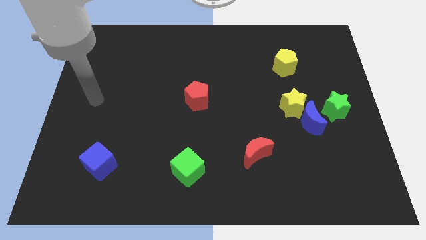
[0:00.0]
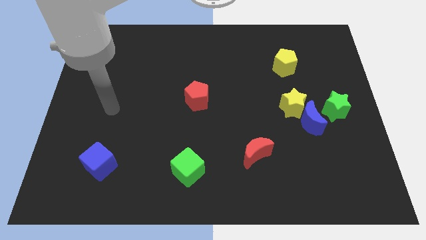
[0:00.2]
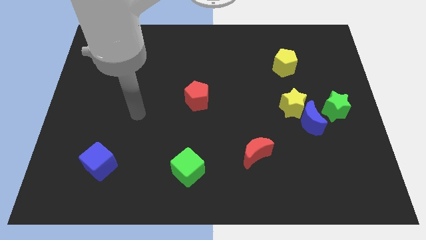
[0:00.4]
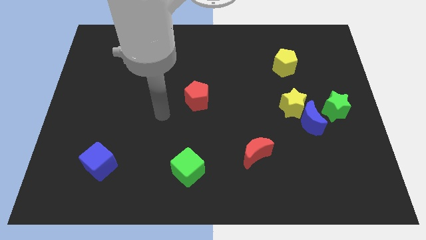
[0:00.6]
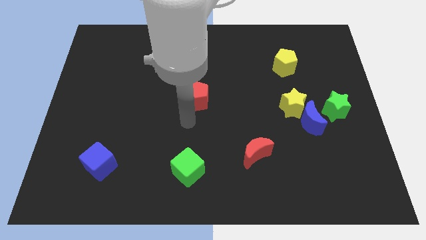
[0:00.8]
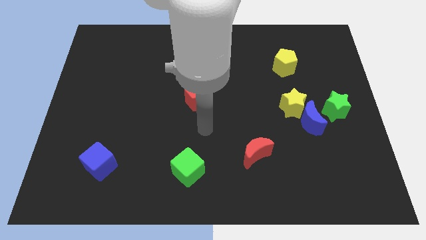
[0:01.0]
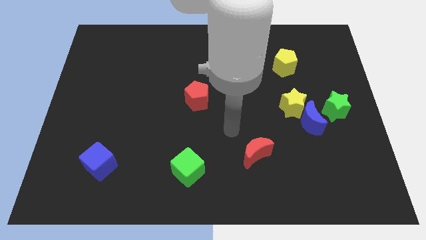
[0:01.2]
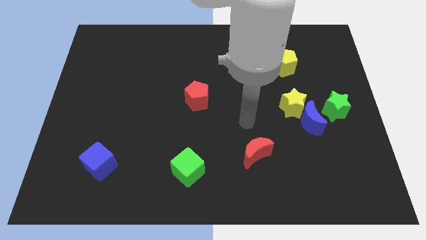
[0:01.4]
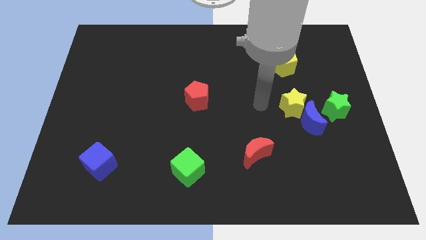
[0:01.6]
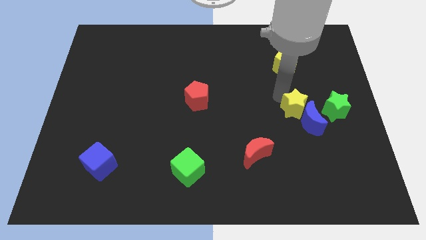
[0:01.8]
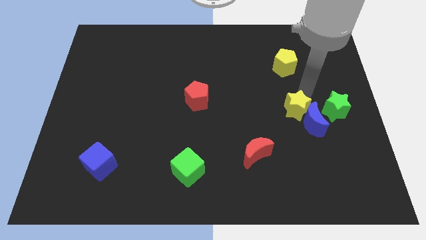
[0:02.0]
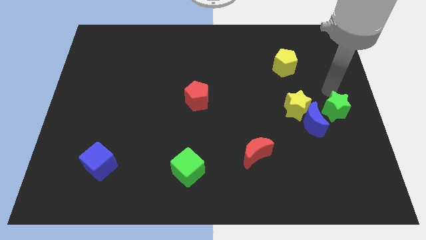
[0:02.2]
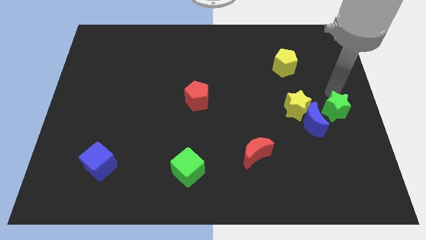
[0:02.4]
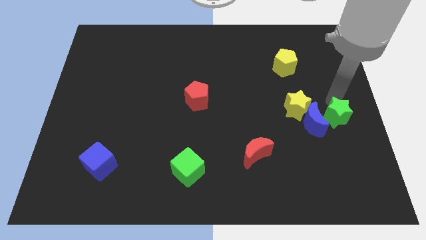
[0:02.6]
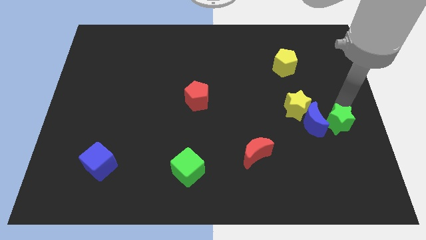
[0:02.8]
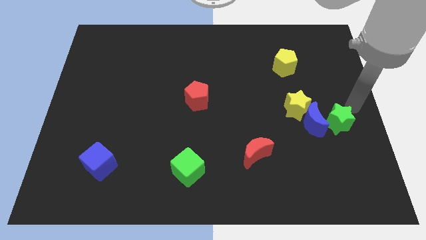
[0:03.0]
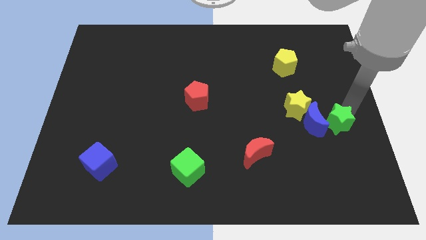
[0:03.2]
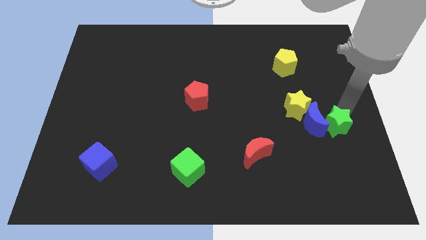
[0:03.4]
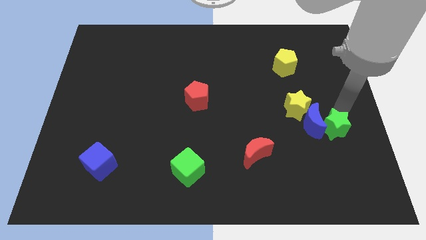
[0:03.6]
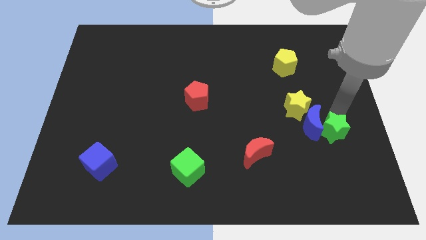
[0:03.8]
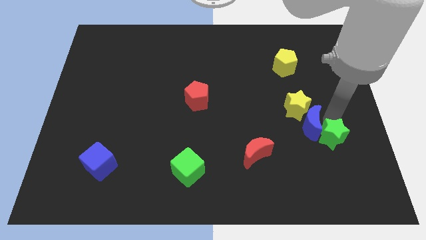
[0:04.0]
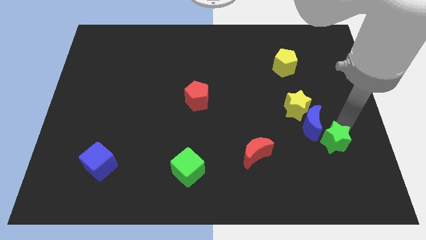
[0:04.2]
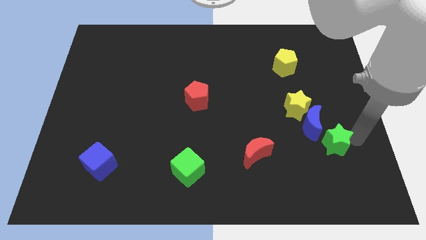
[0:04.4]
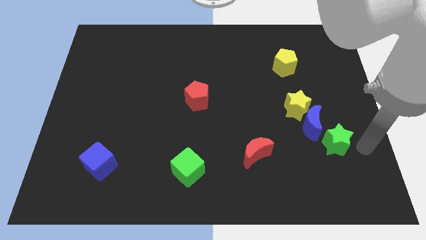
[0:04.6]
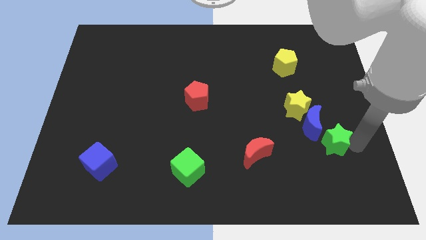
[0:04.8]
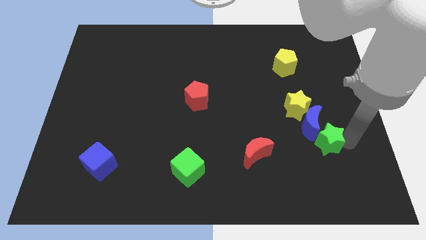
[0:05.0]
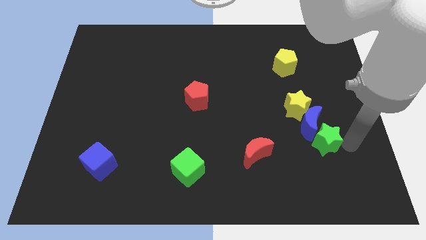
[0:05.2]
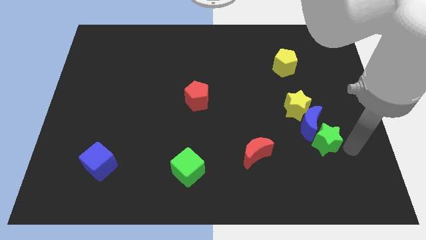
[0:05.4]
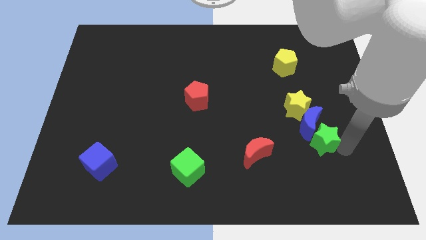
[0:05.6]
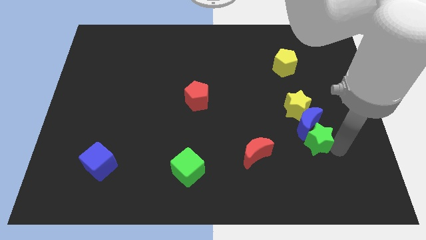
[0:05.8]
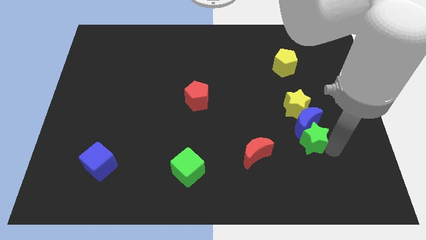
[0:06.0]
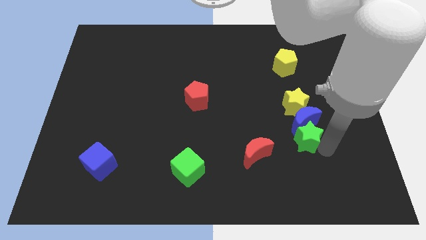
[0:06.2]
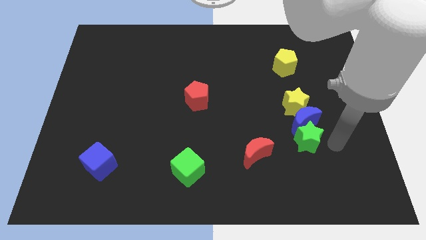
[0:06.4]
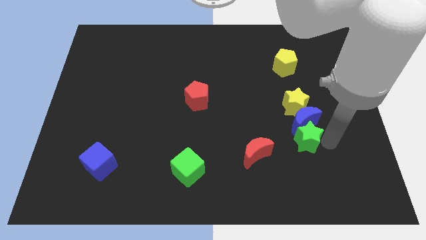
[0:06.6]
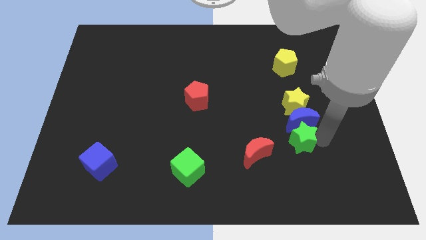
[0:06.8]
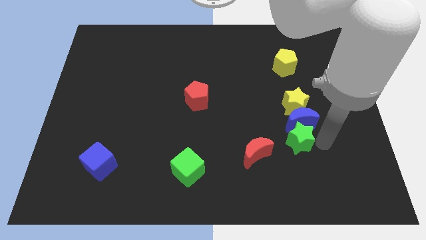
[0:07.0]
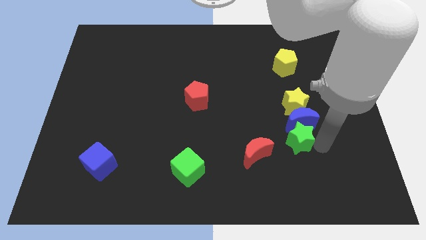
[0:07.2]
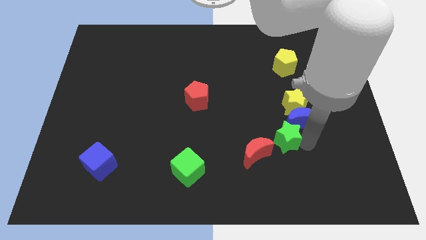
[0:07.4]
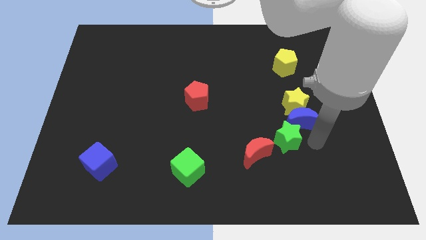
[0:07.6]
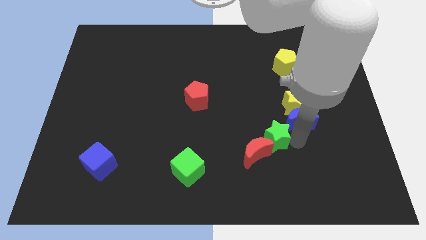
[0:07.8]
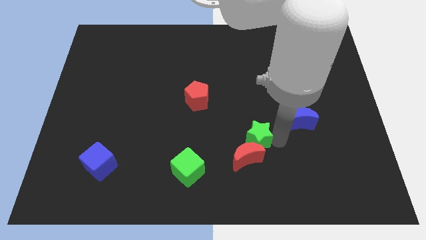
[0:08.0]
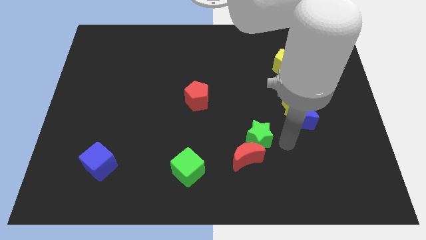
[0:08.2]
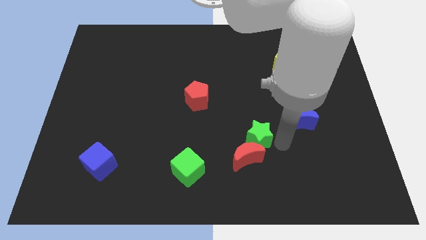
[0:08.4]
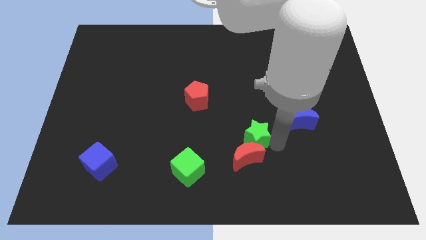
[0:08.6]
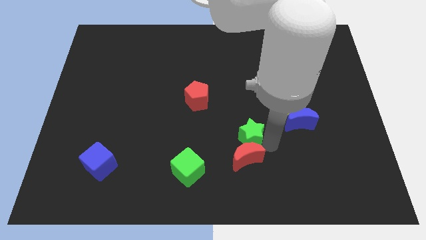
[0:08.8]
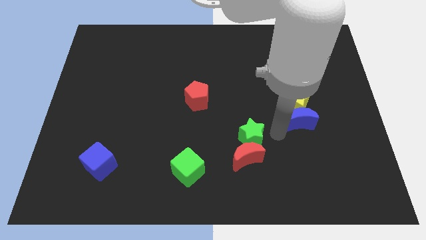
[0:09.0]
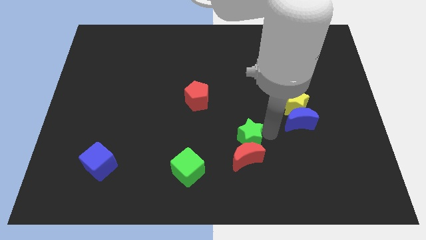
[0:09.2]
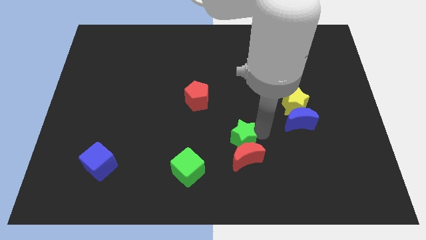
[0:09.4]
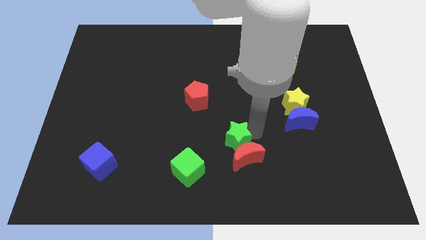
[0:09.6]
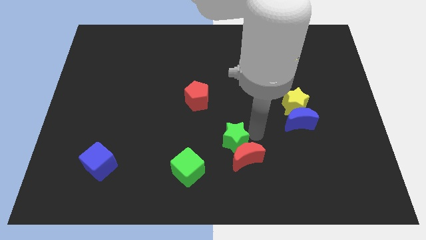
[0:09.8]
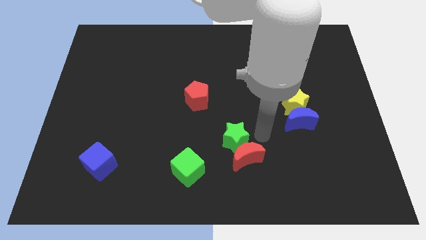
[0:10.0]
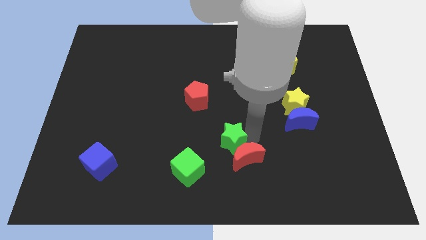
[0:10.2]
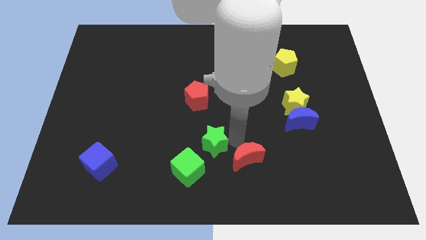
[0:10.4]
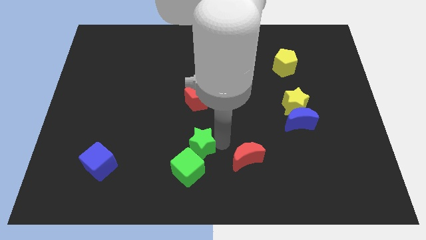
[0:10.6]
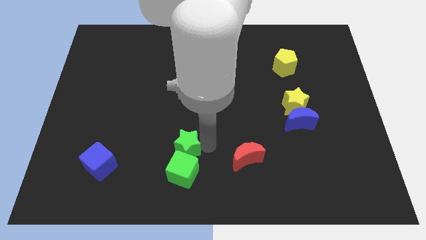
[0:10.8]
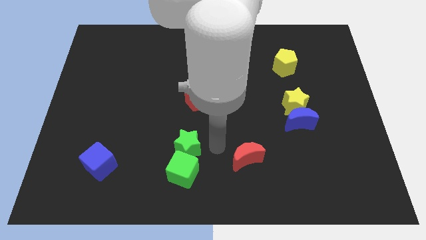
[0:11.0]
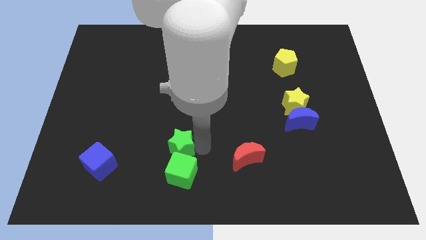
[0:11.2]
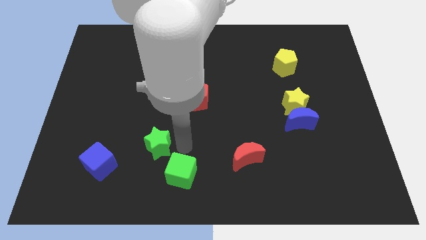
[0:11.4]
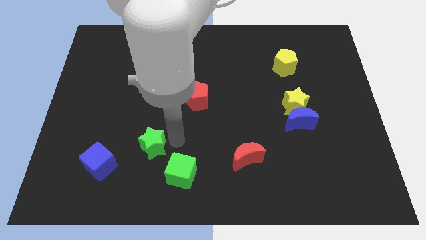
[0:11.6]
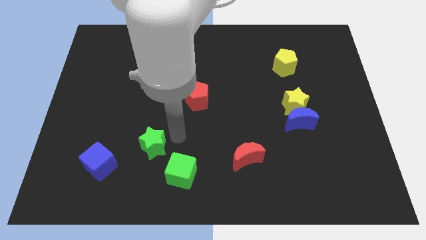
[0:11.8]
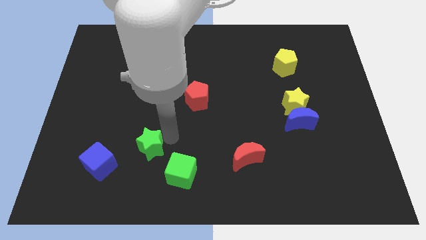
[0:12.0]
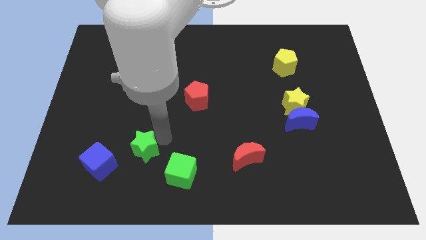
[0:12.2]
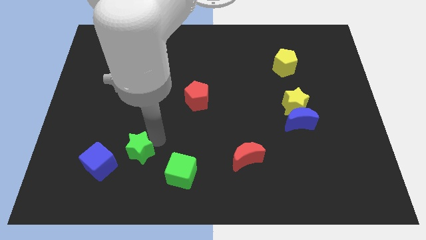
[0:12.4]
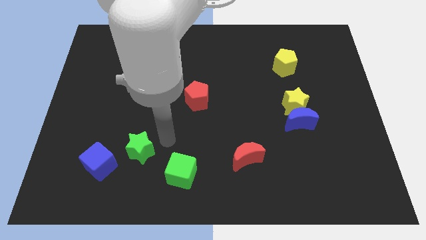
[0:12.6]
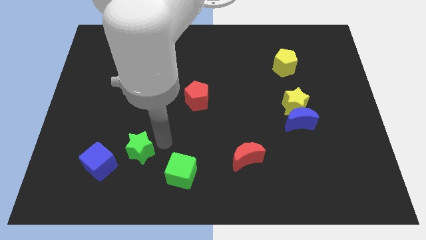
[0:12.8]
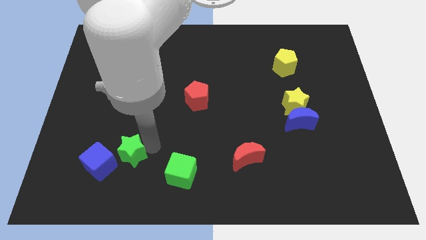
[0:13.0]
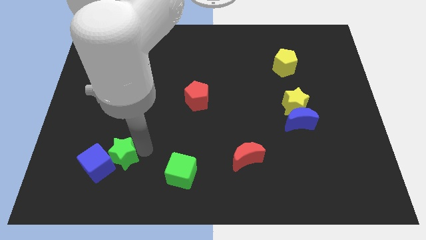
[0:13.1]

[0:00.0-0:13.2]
move the green star close to the blue cube

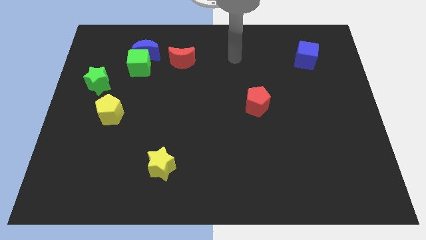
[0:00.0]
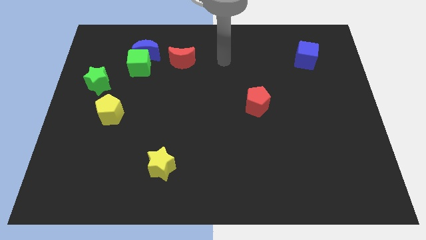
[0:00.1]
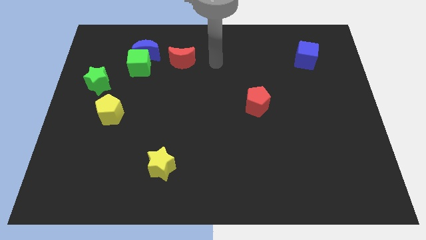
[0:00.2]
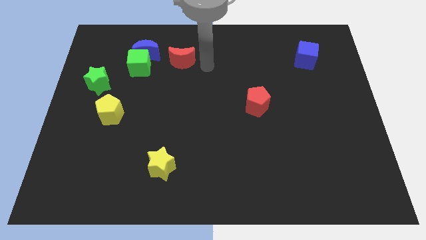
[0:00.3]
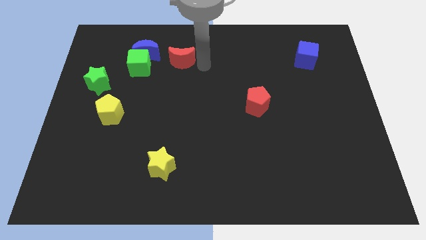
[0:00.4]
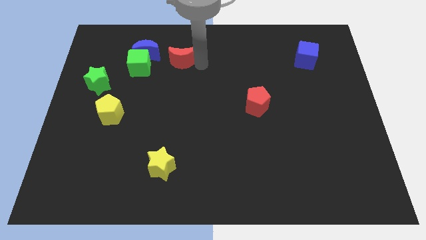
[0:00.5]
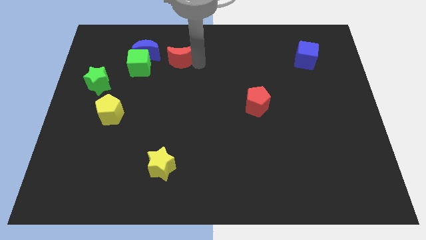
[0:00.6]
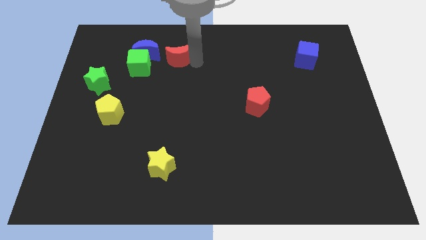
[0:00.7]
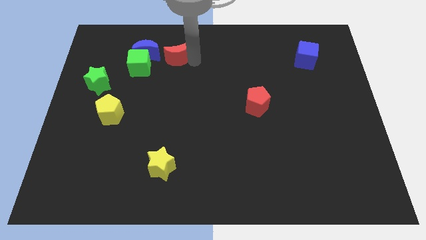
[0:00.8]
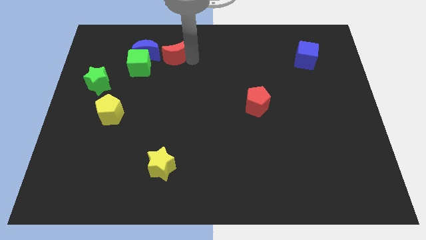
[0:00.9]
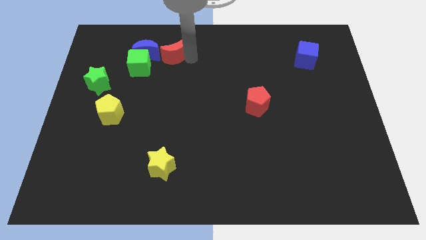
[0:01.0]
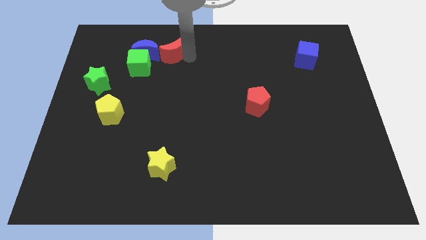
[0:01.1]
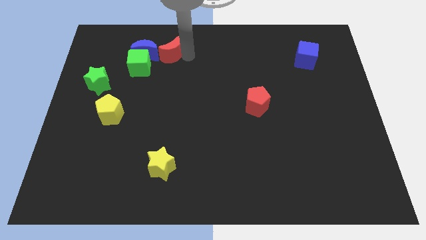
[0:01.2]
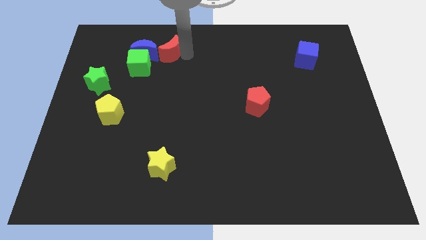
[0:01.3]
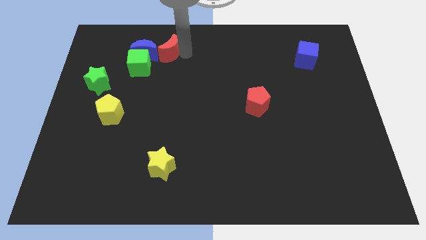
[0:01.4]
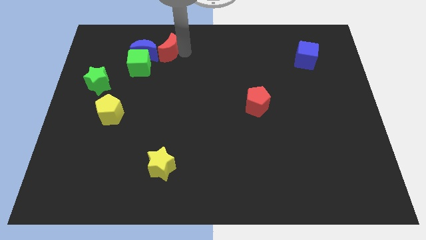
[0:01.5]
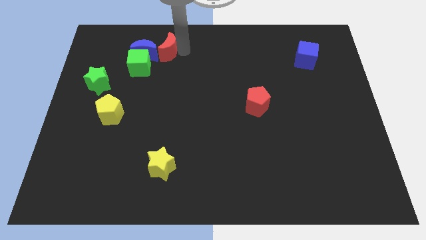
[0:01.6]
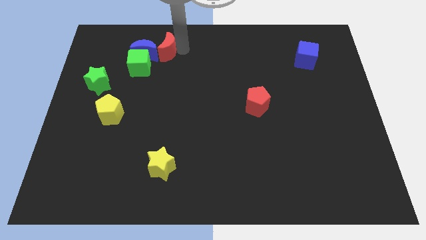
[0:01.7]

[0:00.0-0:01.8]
put the red moon close to the blue moon
